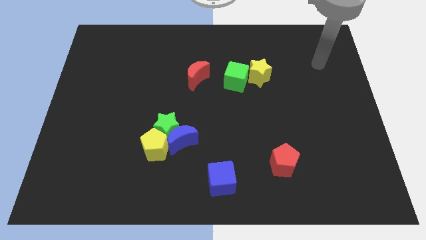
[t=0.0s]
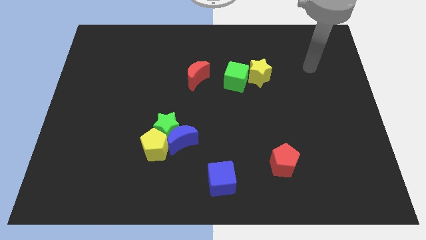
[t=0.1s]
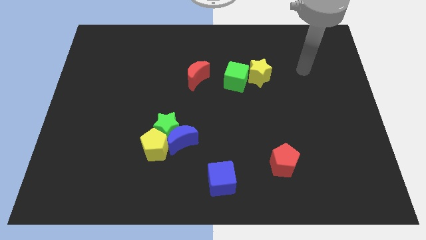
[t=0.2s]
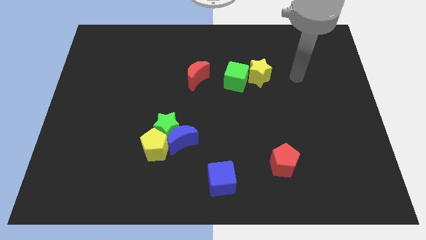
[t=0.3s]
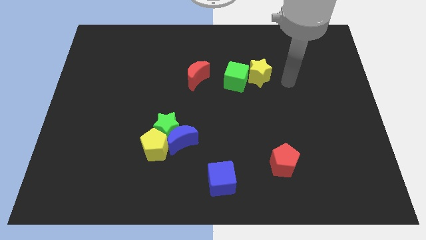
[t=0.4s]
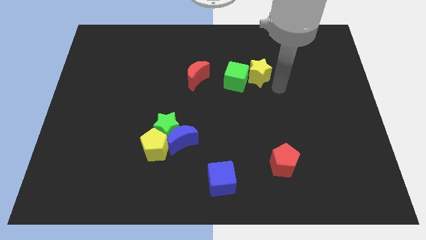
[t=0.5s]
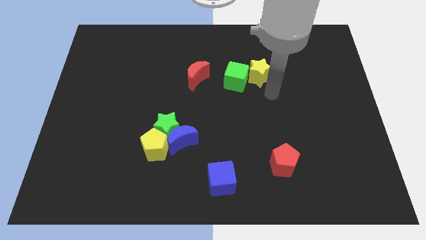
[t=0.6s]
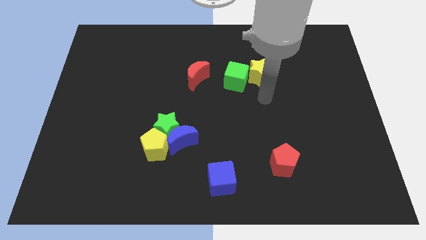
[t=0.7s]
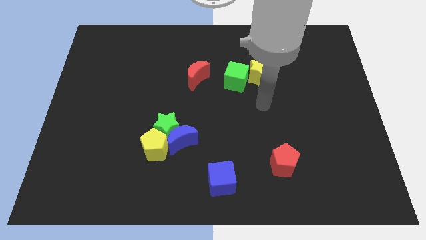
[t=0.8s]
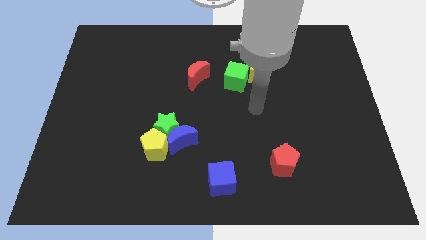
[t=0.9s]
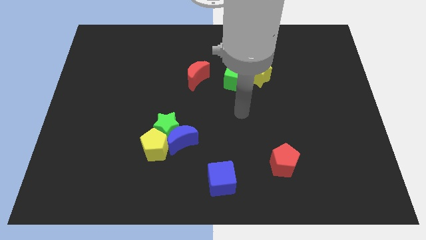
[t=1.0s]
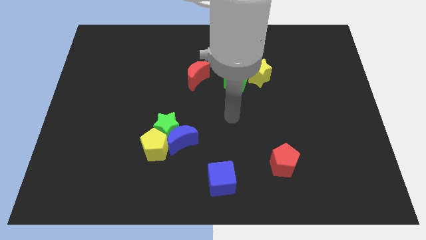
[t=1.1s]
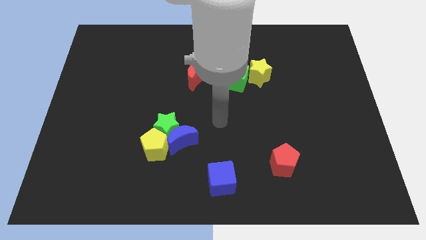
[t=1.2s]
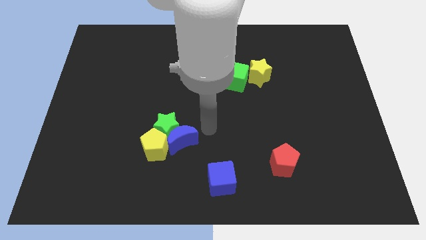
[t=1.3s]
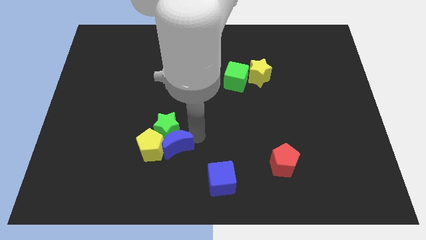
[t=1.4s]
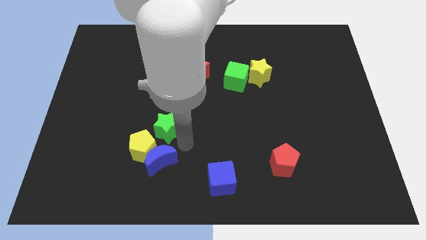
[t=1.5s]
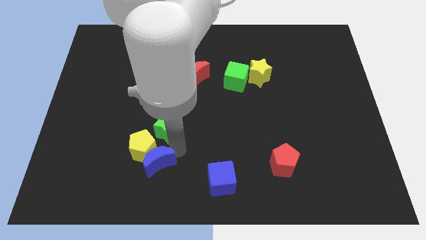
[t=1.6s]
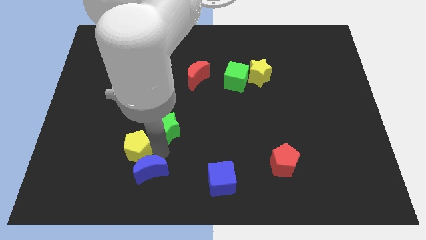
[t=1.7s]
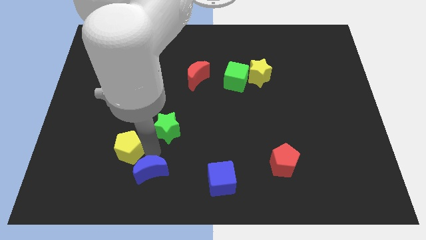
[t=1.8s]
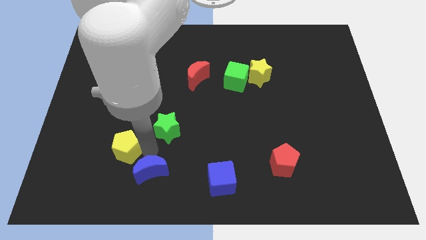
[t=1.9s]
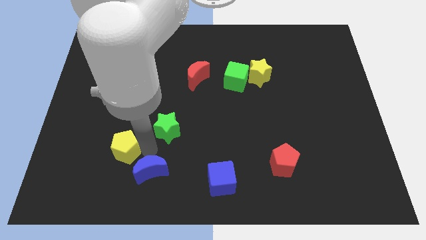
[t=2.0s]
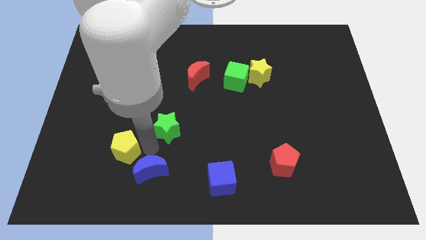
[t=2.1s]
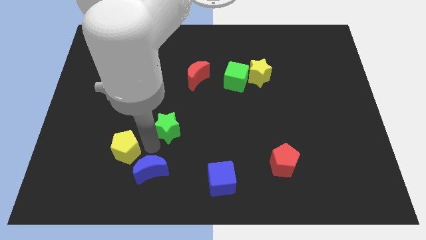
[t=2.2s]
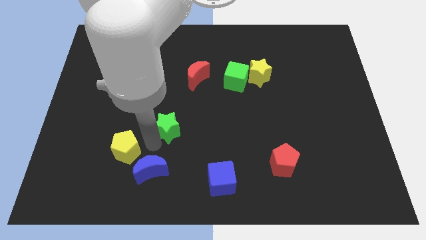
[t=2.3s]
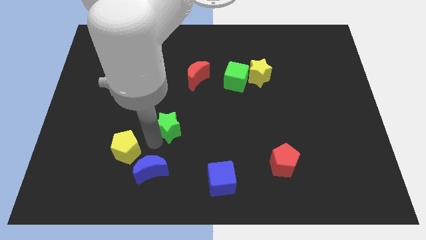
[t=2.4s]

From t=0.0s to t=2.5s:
pull the green star apart from the blue moon and yellow pentagon

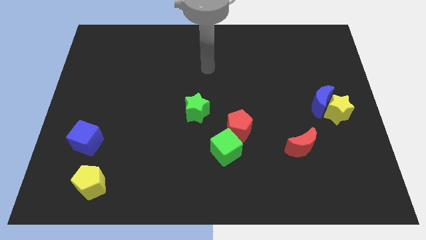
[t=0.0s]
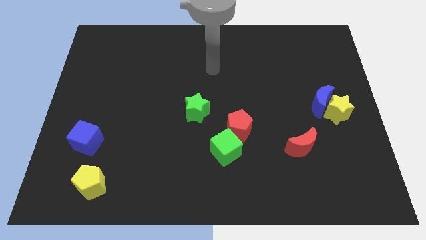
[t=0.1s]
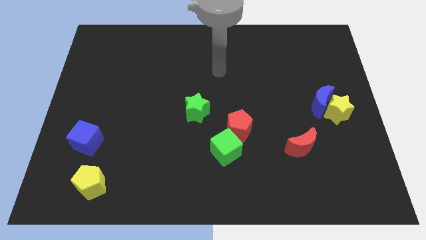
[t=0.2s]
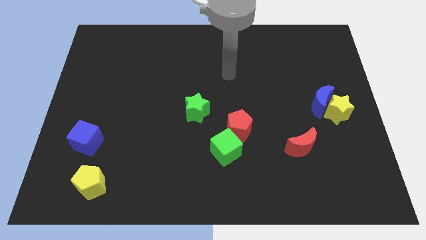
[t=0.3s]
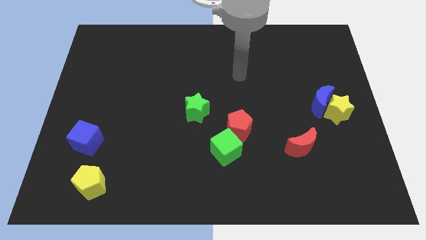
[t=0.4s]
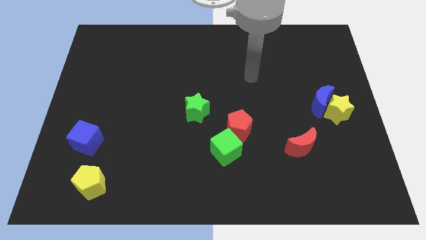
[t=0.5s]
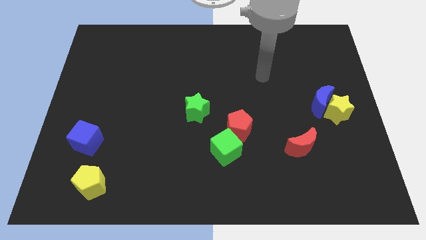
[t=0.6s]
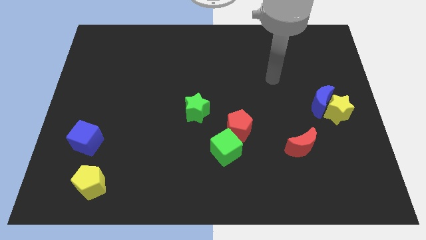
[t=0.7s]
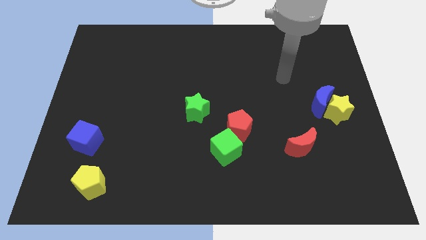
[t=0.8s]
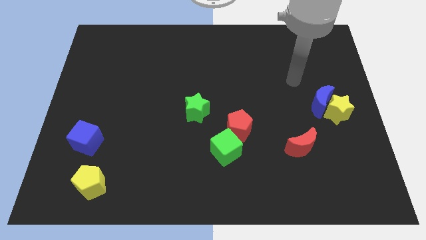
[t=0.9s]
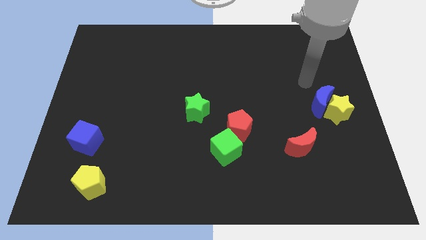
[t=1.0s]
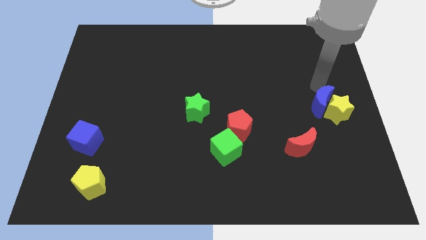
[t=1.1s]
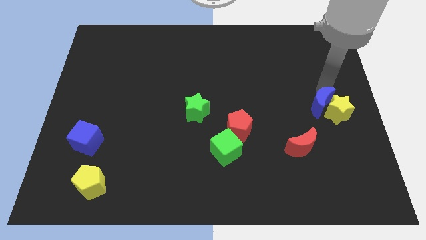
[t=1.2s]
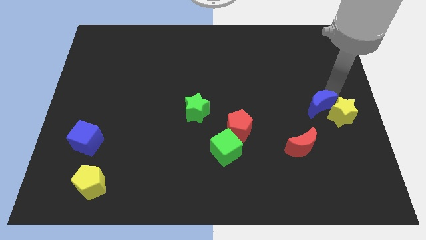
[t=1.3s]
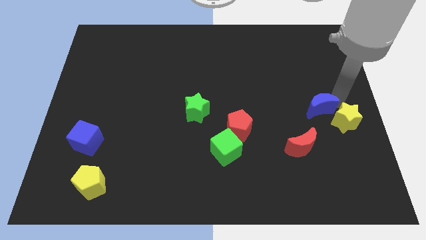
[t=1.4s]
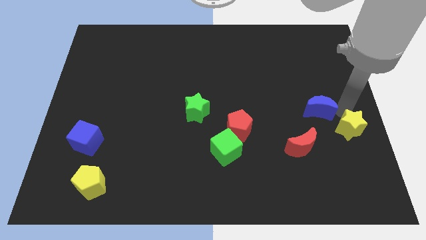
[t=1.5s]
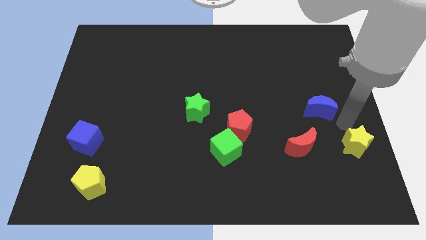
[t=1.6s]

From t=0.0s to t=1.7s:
pull the blue moon apart from the yellow star

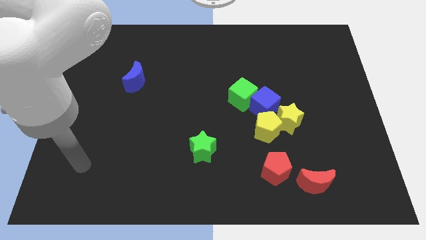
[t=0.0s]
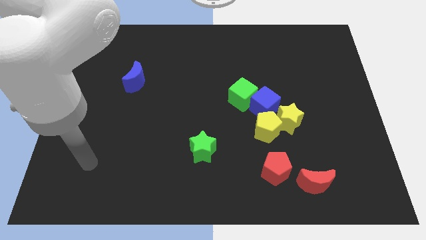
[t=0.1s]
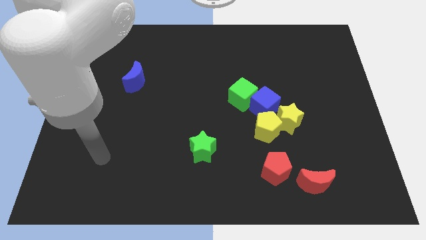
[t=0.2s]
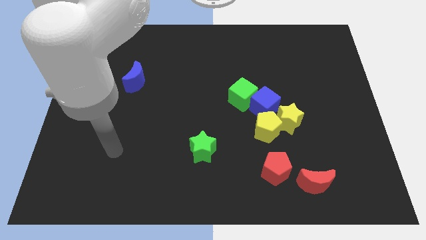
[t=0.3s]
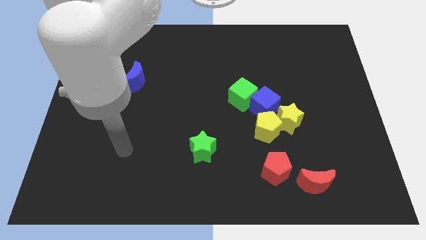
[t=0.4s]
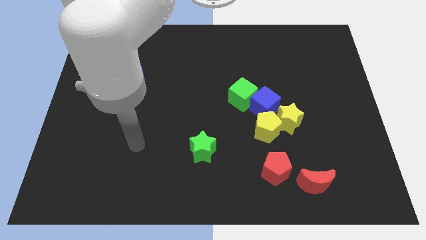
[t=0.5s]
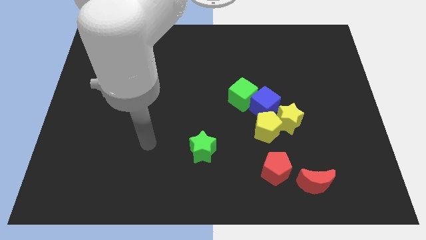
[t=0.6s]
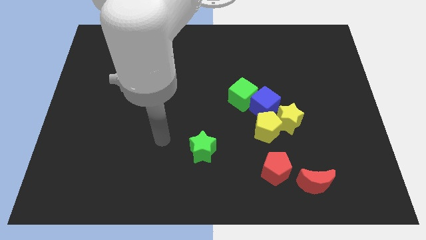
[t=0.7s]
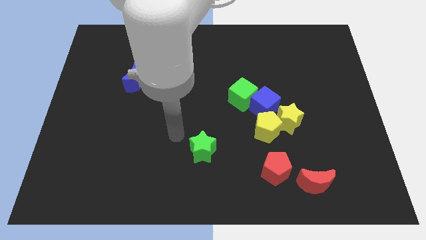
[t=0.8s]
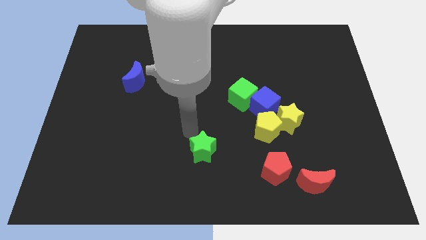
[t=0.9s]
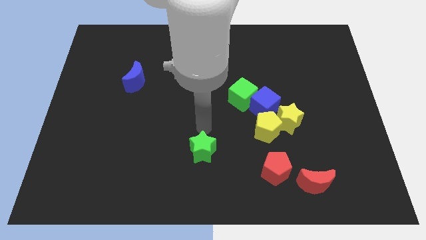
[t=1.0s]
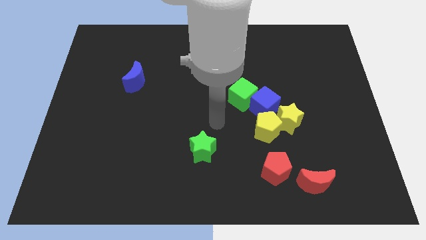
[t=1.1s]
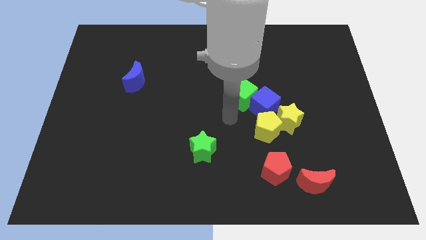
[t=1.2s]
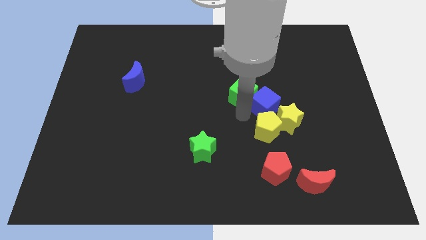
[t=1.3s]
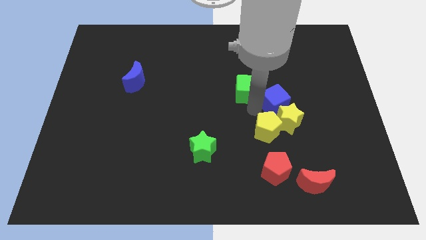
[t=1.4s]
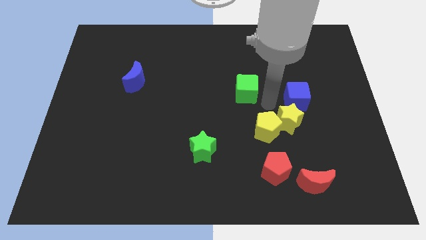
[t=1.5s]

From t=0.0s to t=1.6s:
move the green cube away from the blue cube

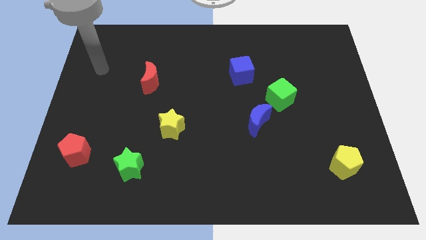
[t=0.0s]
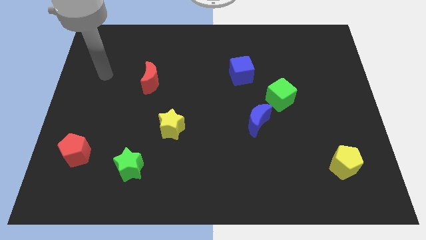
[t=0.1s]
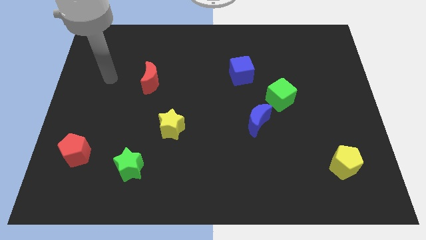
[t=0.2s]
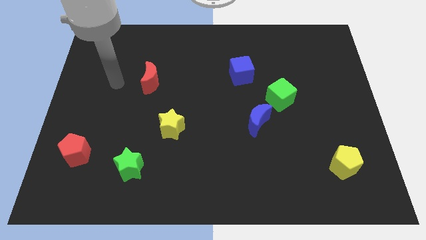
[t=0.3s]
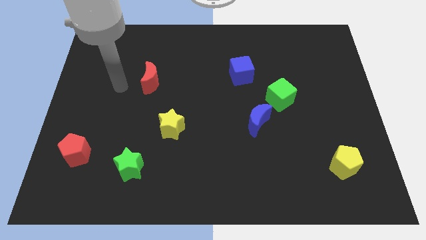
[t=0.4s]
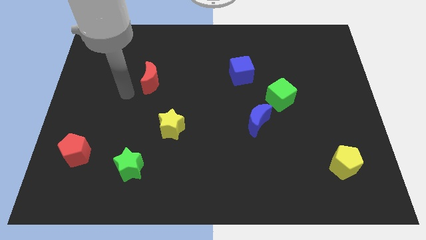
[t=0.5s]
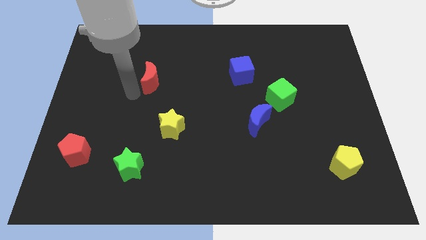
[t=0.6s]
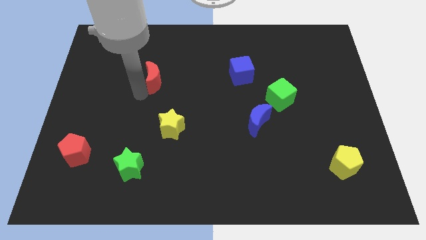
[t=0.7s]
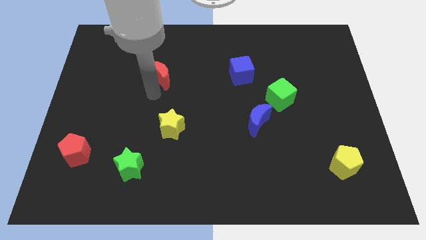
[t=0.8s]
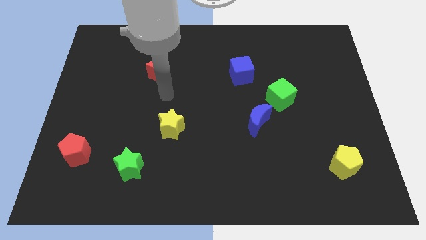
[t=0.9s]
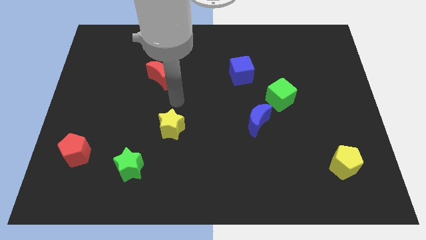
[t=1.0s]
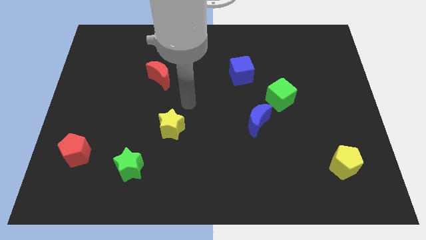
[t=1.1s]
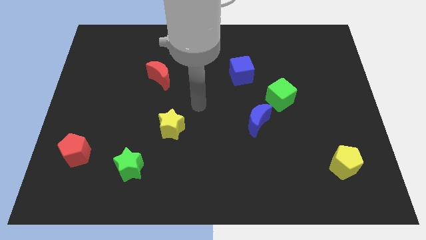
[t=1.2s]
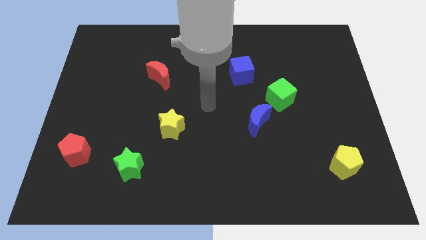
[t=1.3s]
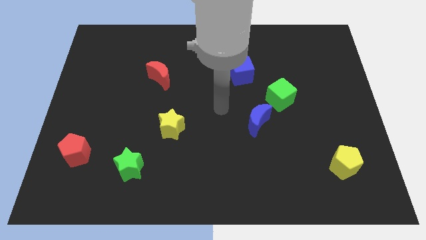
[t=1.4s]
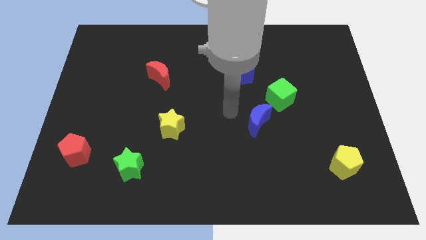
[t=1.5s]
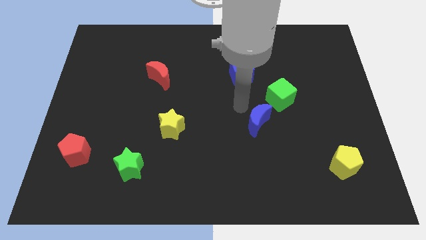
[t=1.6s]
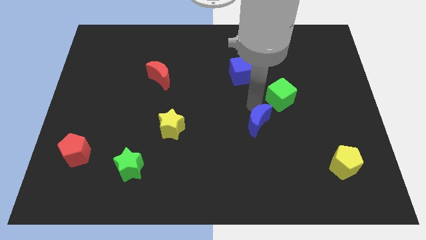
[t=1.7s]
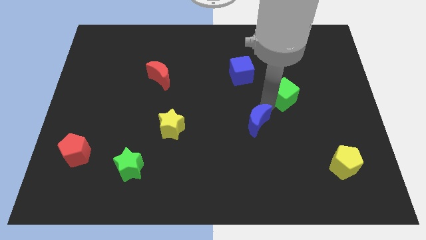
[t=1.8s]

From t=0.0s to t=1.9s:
separate the blue moon from the green cube

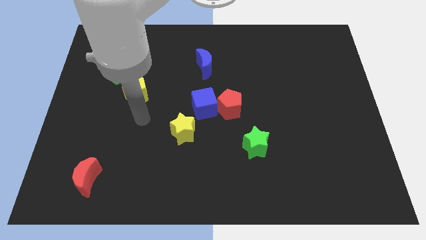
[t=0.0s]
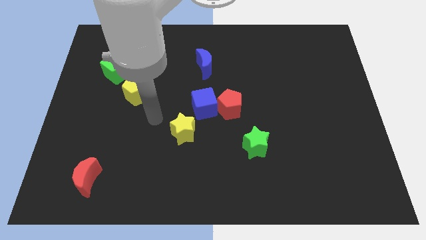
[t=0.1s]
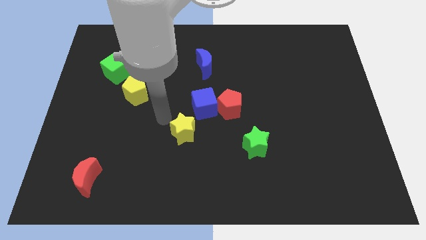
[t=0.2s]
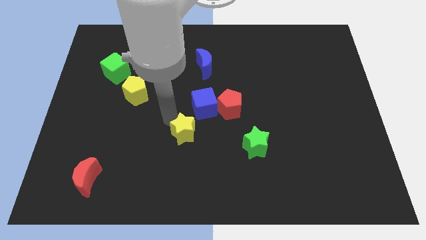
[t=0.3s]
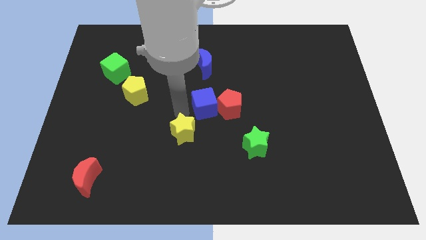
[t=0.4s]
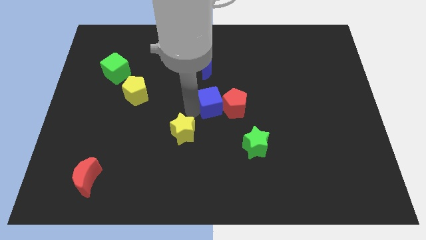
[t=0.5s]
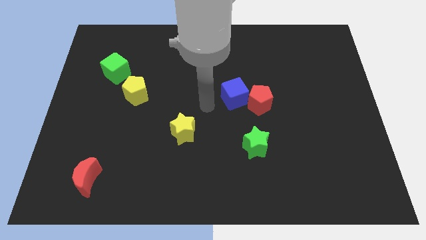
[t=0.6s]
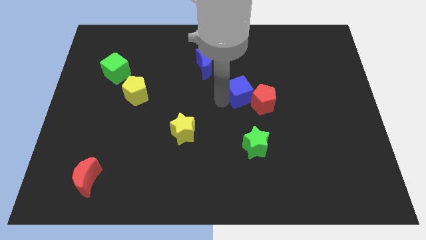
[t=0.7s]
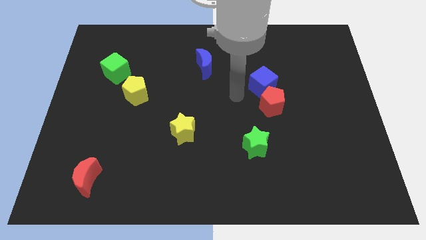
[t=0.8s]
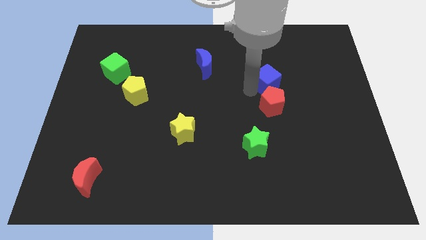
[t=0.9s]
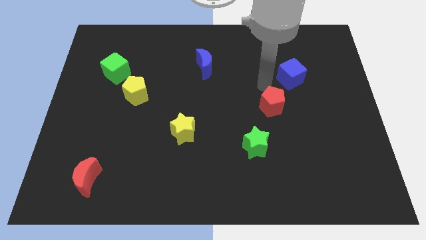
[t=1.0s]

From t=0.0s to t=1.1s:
pull the red pentagon apart from the blue cube

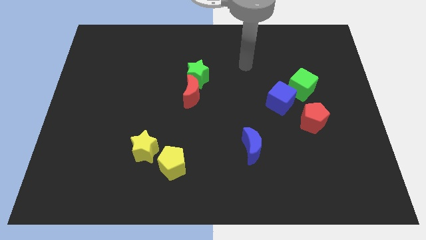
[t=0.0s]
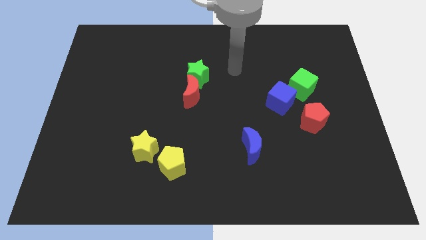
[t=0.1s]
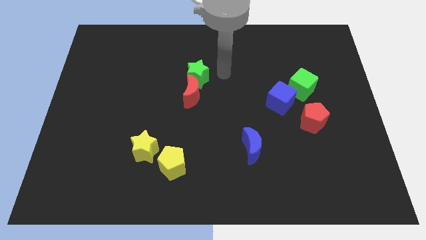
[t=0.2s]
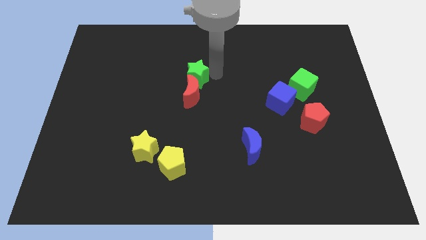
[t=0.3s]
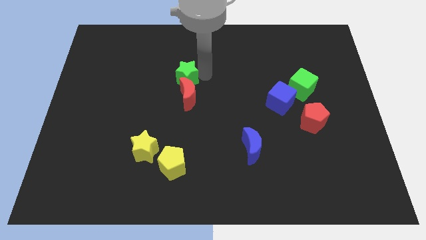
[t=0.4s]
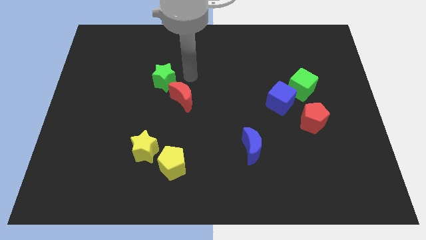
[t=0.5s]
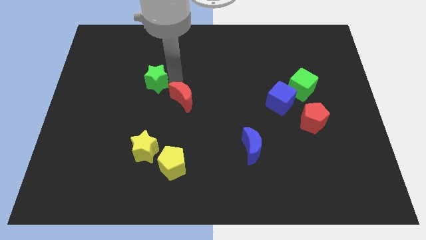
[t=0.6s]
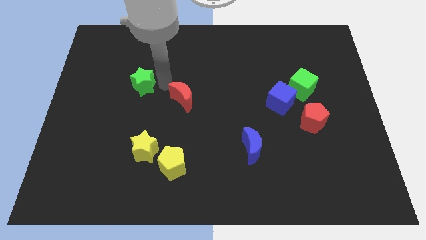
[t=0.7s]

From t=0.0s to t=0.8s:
pull the red moon apart from the green star
